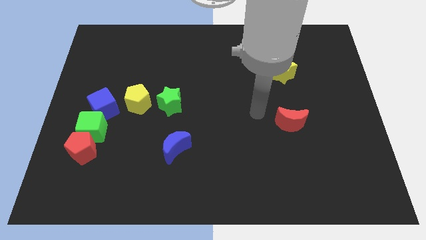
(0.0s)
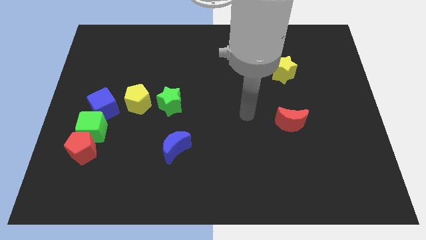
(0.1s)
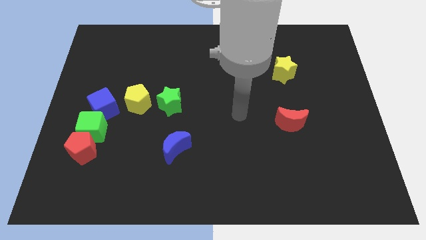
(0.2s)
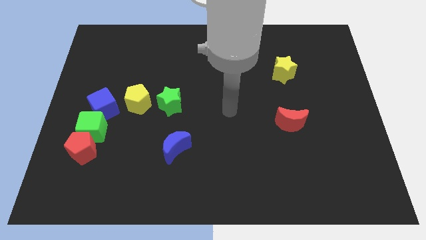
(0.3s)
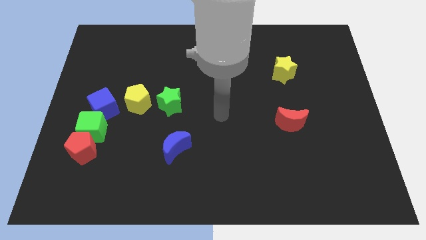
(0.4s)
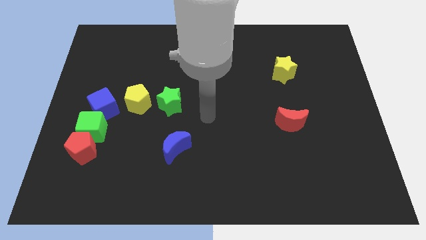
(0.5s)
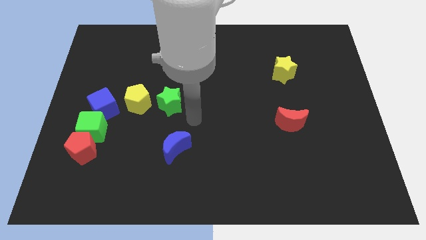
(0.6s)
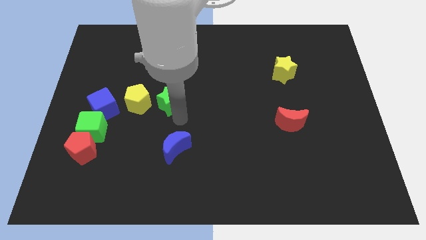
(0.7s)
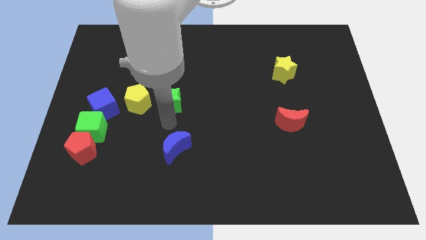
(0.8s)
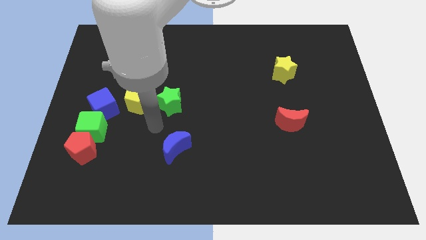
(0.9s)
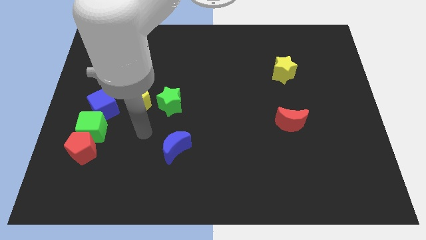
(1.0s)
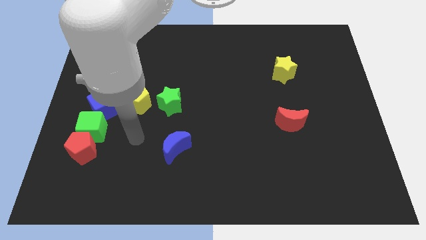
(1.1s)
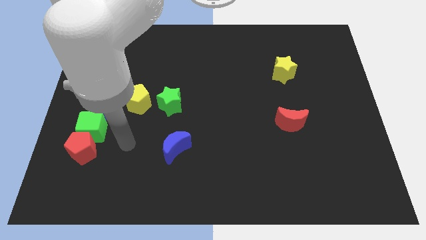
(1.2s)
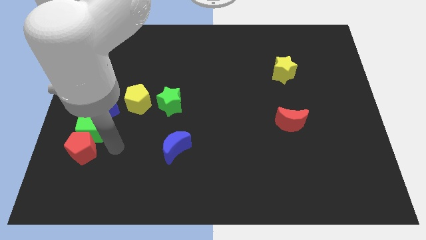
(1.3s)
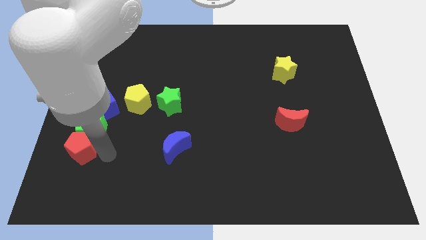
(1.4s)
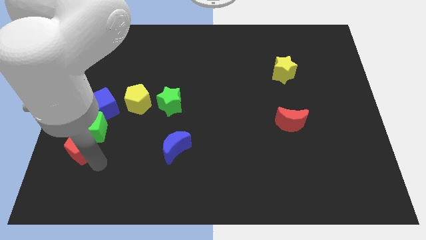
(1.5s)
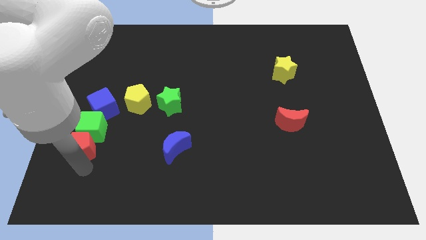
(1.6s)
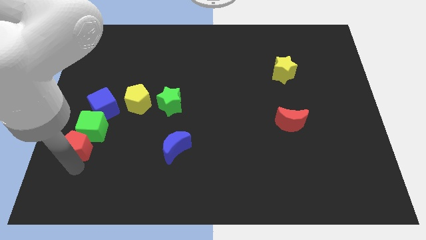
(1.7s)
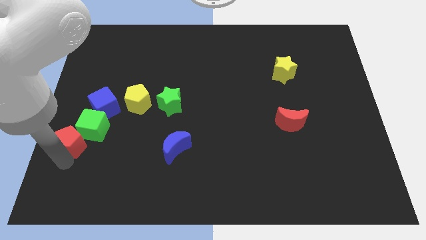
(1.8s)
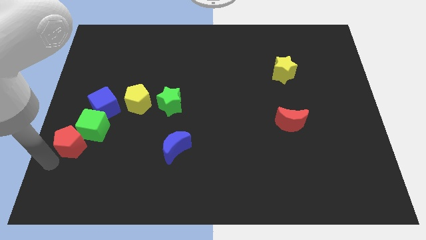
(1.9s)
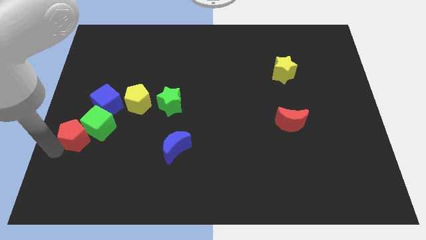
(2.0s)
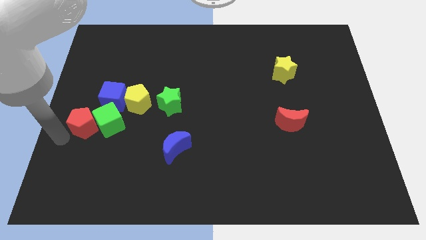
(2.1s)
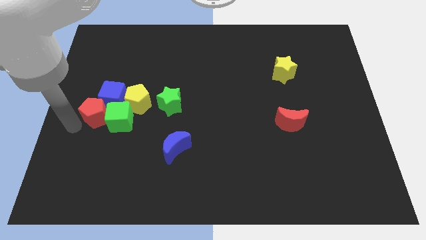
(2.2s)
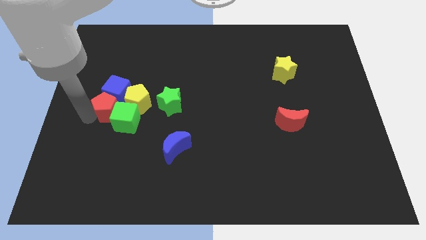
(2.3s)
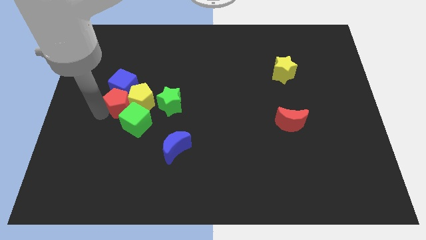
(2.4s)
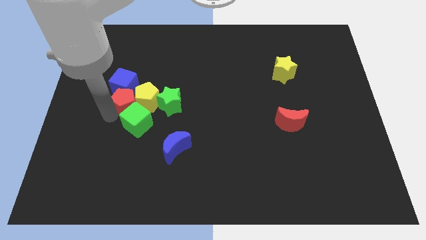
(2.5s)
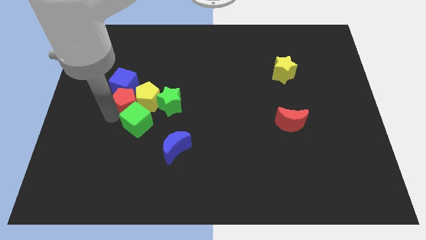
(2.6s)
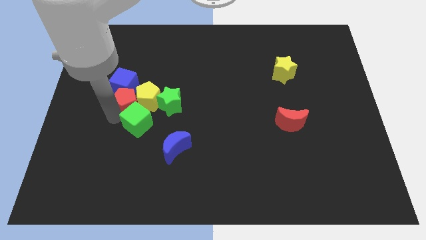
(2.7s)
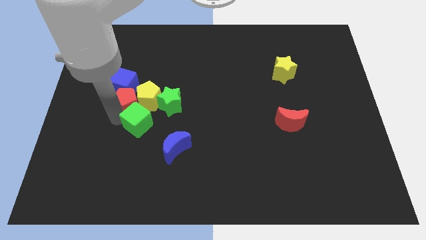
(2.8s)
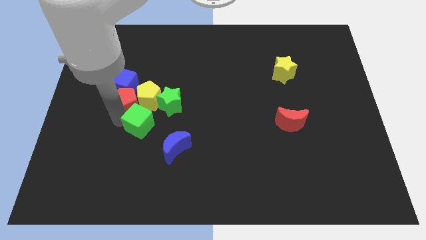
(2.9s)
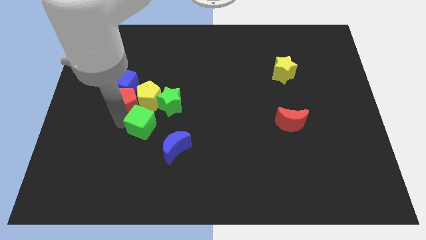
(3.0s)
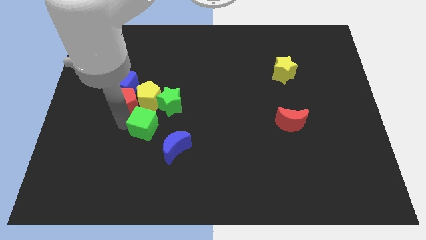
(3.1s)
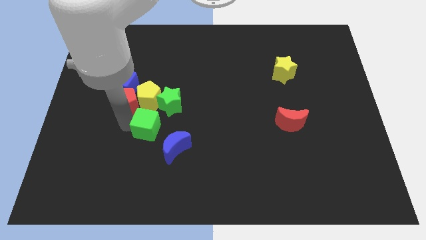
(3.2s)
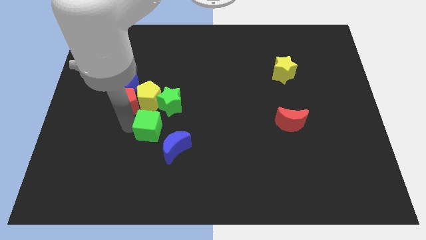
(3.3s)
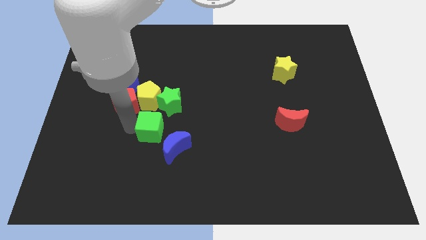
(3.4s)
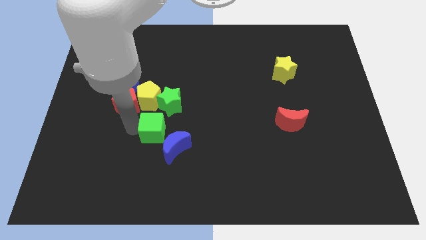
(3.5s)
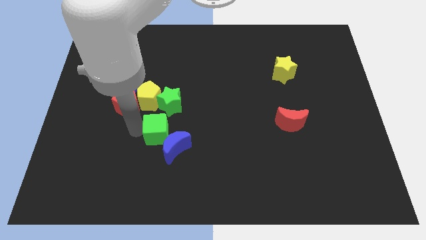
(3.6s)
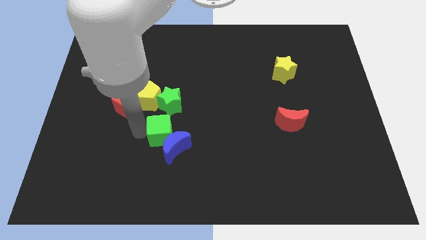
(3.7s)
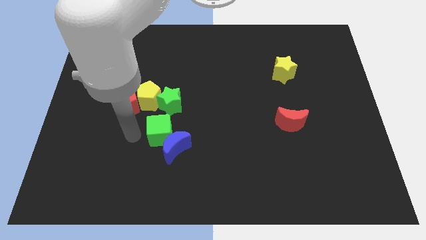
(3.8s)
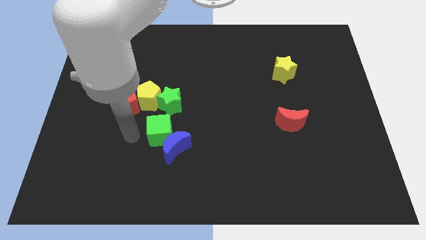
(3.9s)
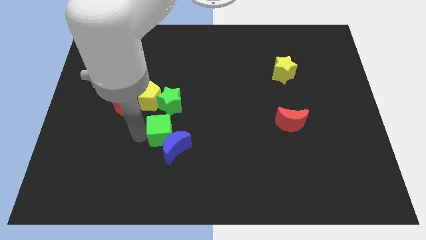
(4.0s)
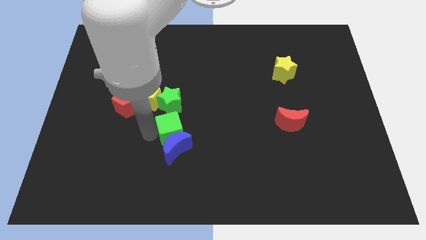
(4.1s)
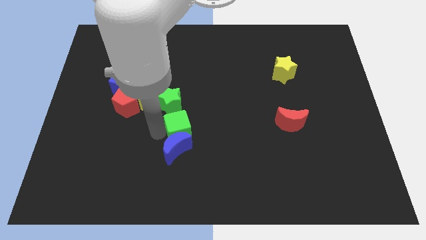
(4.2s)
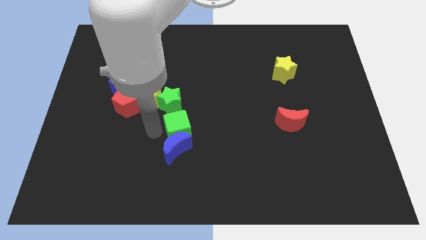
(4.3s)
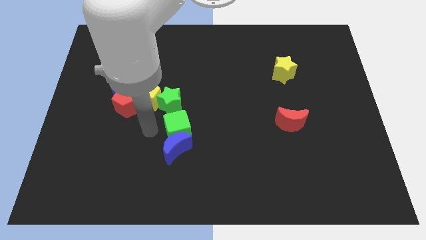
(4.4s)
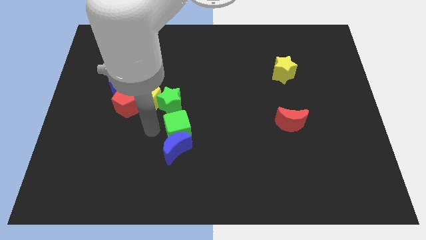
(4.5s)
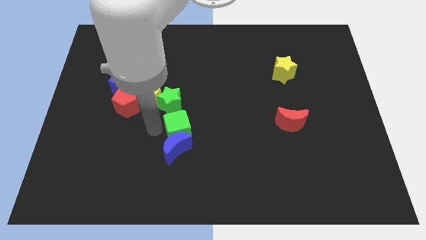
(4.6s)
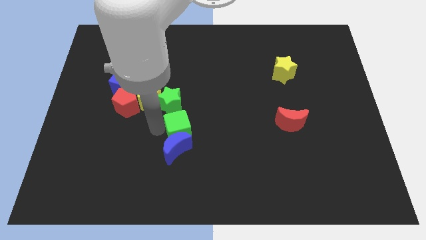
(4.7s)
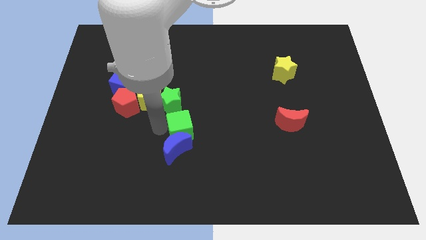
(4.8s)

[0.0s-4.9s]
move the green cube to the right

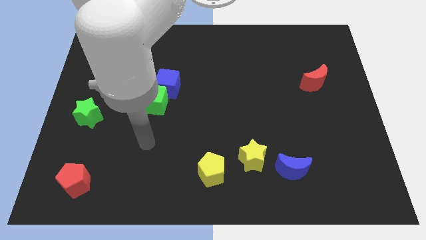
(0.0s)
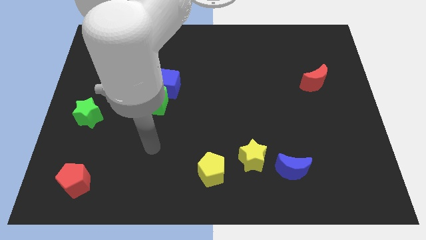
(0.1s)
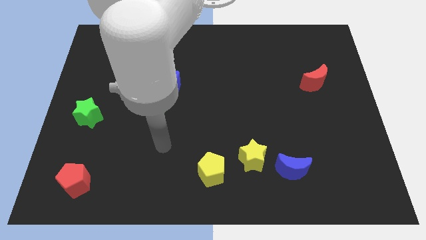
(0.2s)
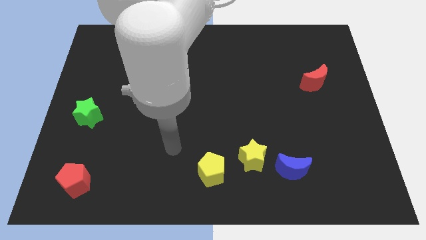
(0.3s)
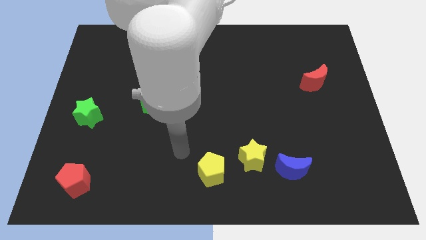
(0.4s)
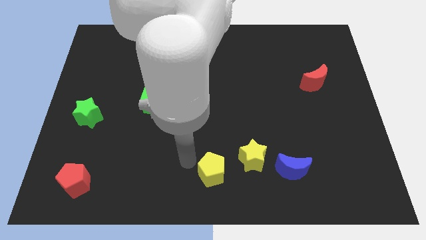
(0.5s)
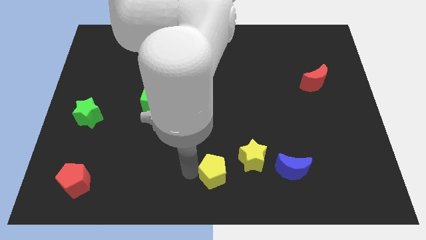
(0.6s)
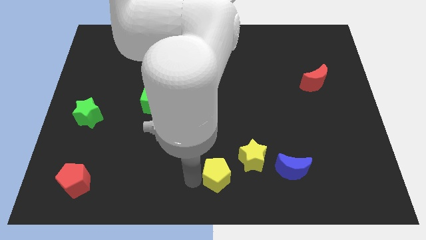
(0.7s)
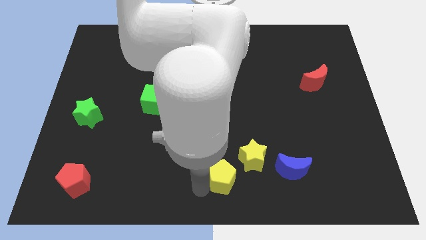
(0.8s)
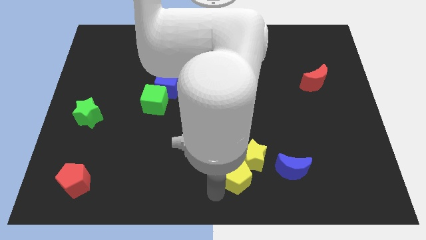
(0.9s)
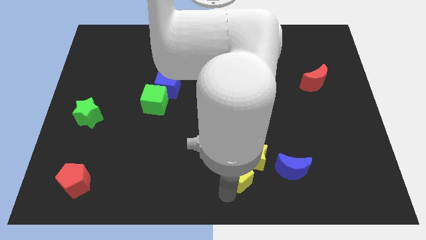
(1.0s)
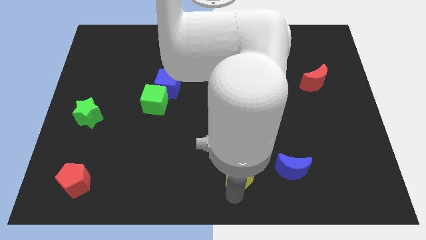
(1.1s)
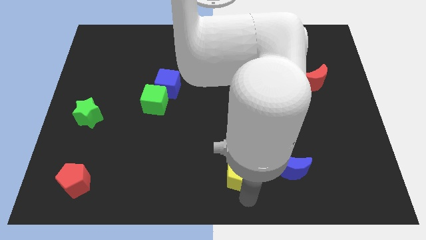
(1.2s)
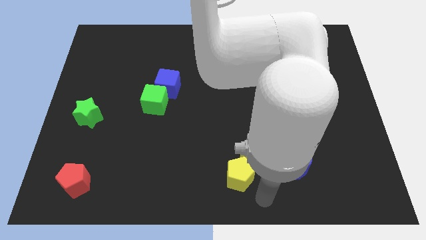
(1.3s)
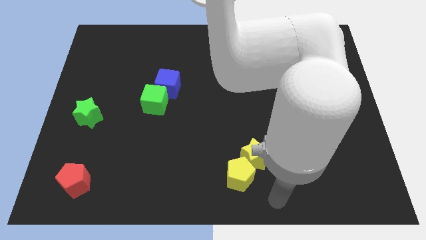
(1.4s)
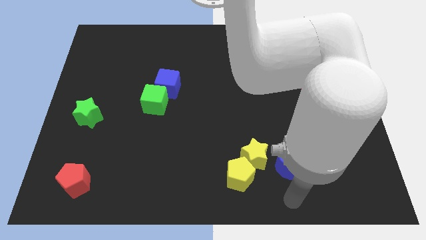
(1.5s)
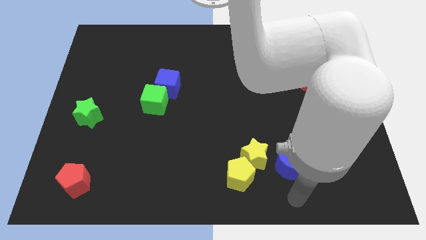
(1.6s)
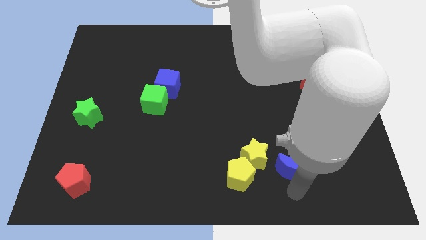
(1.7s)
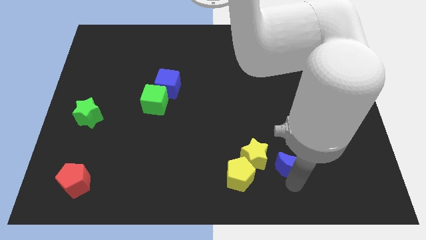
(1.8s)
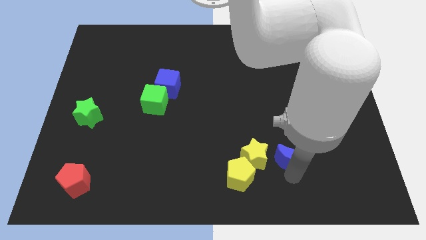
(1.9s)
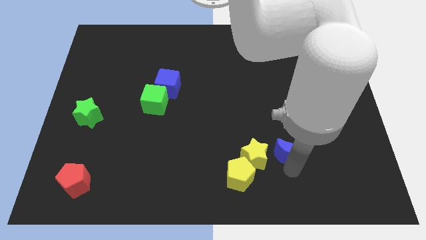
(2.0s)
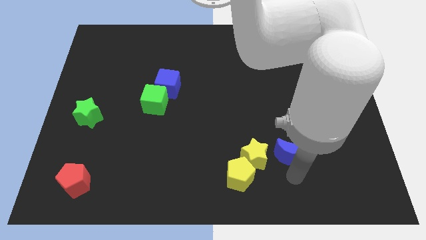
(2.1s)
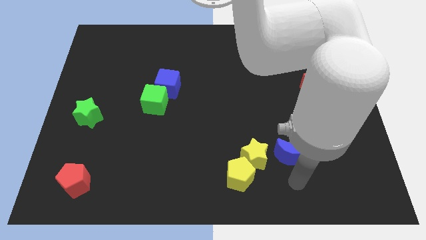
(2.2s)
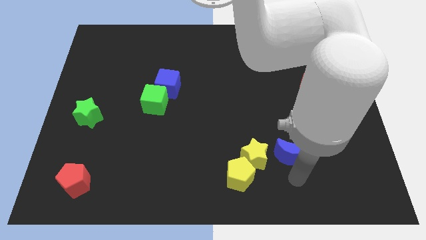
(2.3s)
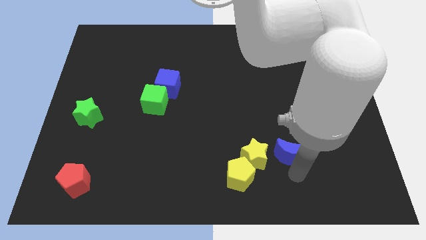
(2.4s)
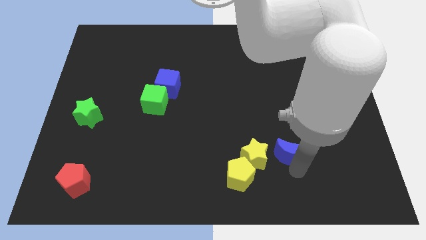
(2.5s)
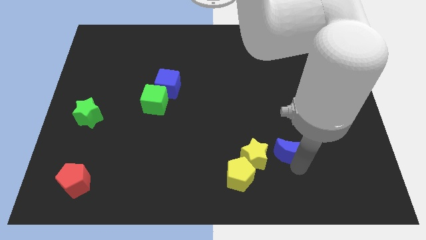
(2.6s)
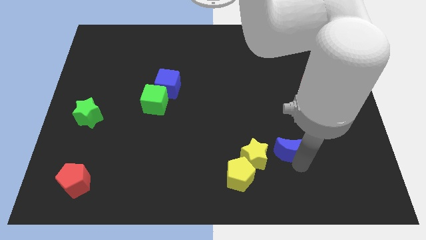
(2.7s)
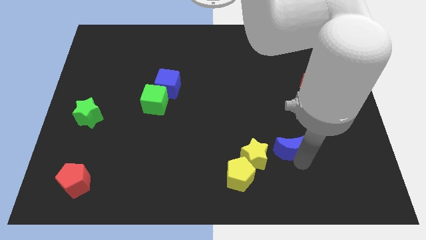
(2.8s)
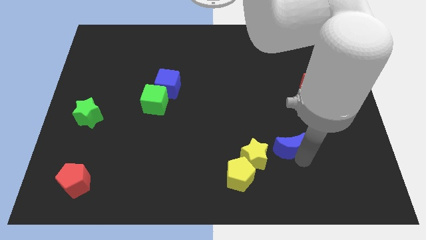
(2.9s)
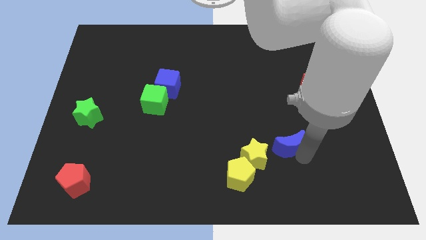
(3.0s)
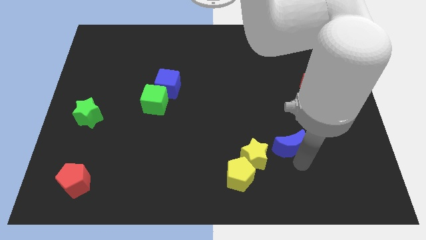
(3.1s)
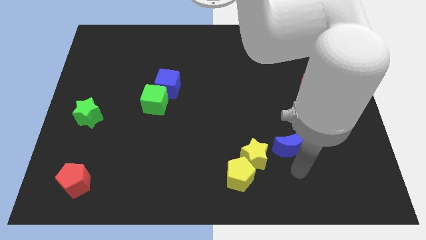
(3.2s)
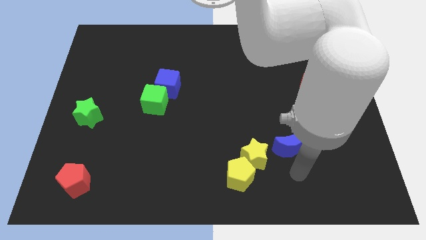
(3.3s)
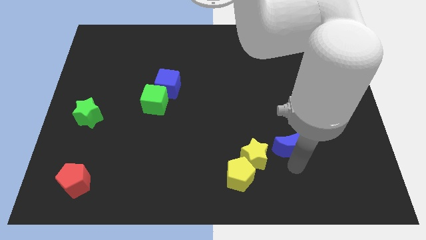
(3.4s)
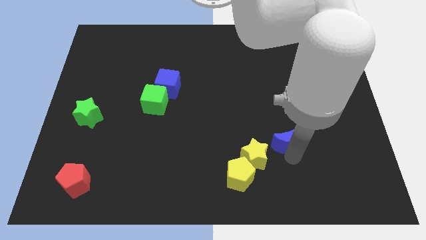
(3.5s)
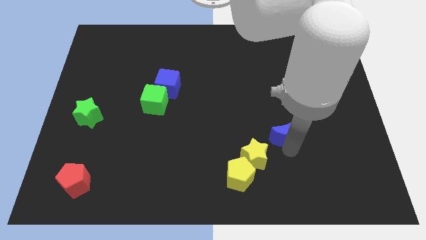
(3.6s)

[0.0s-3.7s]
push the blue moon a little up
